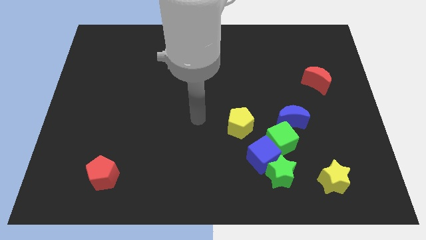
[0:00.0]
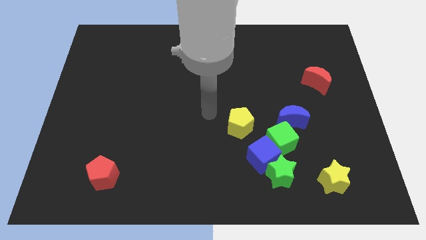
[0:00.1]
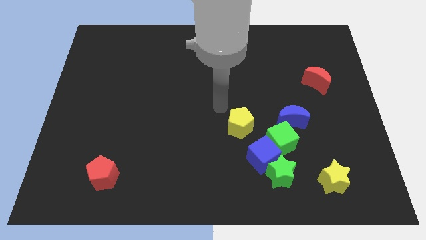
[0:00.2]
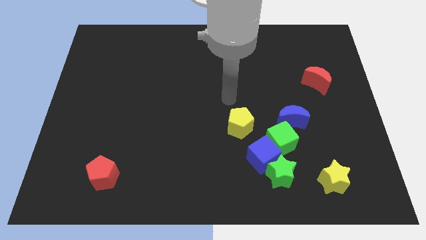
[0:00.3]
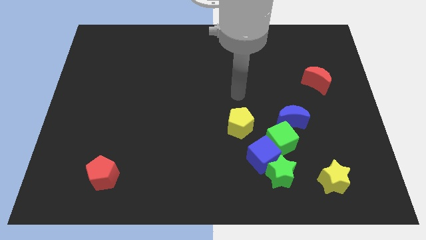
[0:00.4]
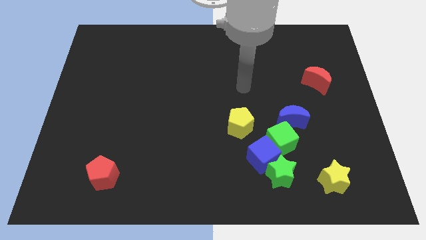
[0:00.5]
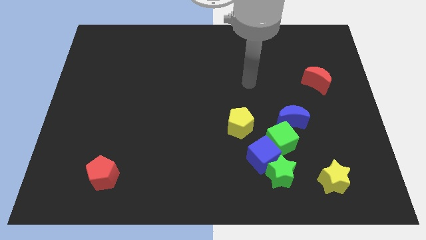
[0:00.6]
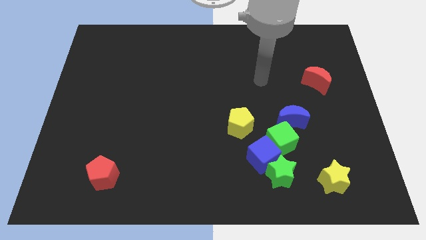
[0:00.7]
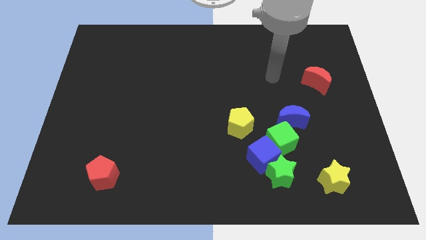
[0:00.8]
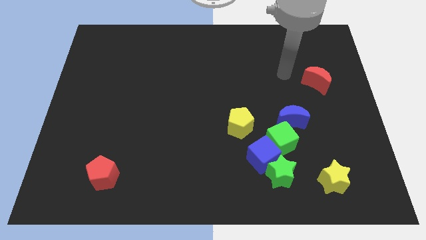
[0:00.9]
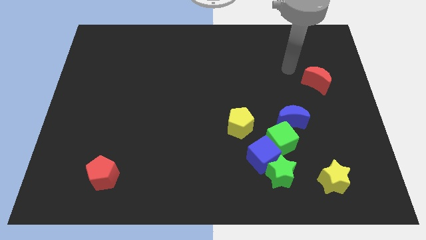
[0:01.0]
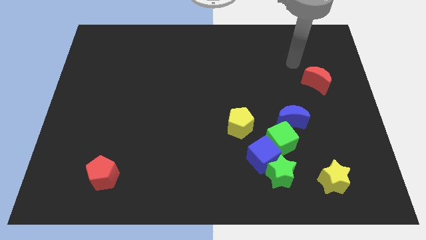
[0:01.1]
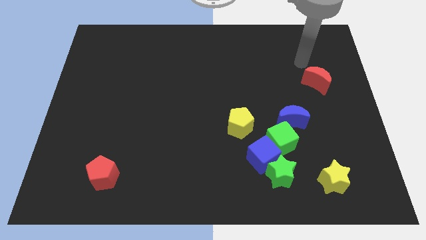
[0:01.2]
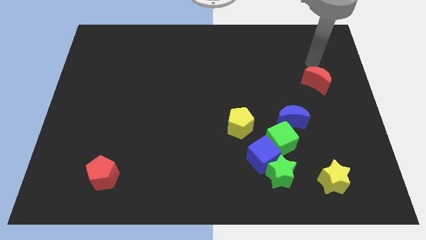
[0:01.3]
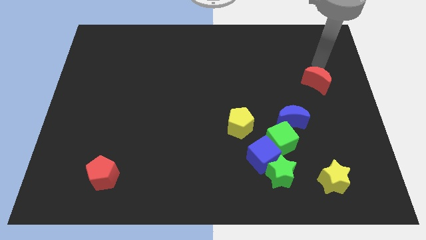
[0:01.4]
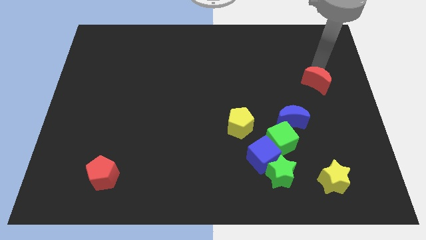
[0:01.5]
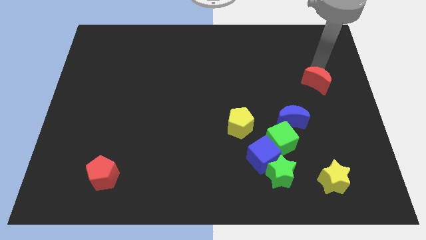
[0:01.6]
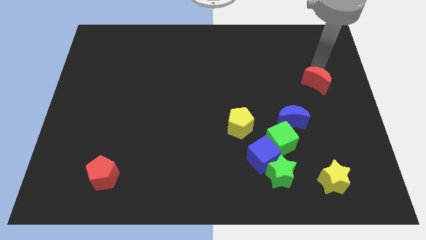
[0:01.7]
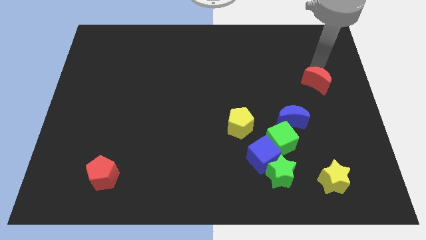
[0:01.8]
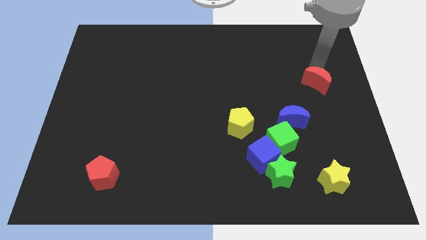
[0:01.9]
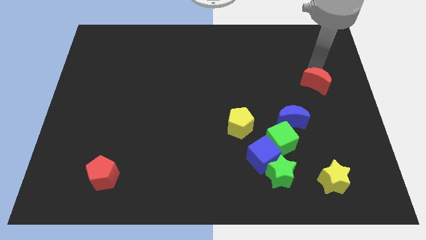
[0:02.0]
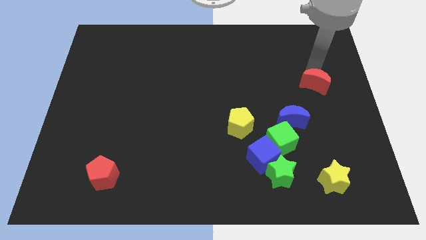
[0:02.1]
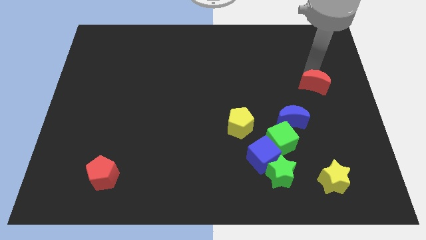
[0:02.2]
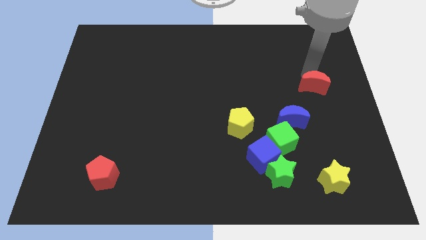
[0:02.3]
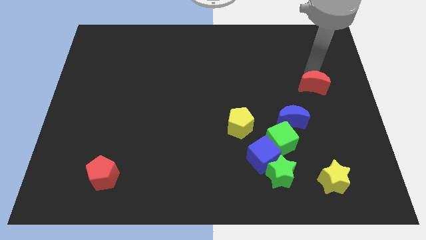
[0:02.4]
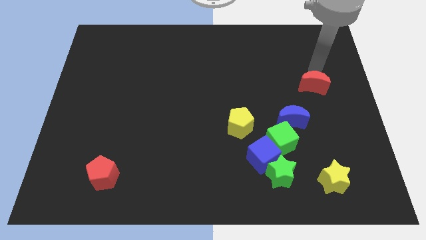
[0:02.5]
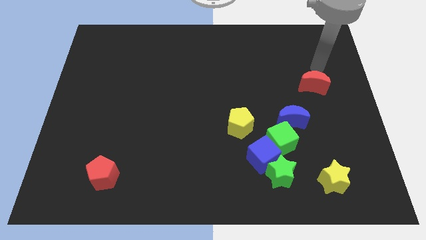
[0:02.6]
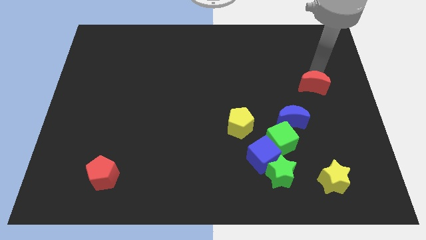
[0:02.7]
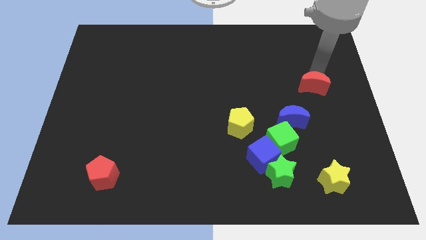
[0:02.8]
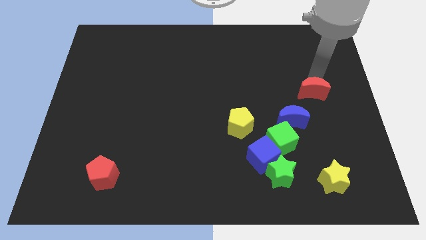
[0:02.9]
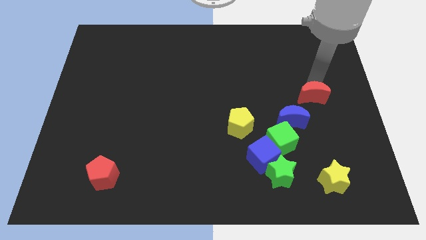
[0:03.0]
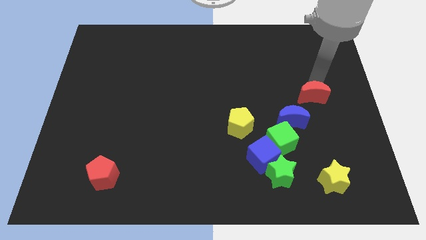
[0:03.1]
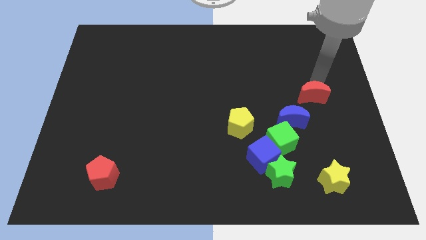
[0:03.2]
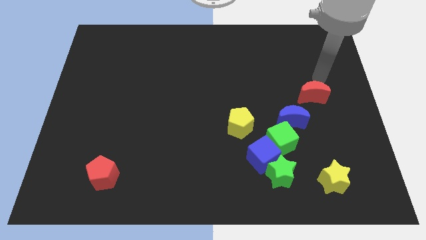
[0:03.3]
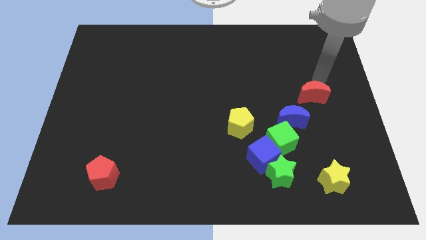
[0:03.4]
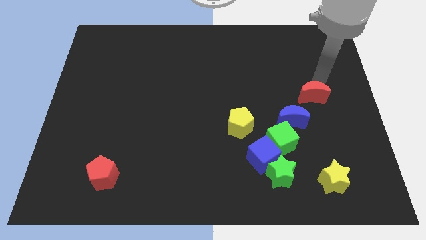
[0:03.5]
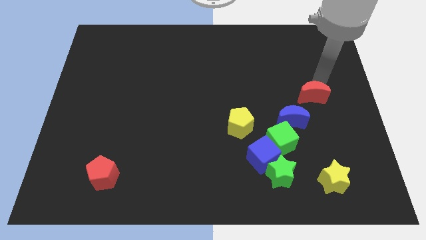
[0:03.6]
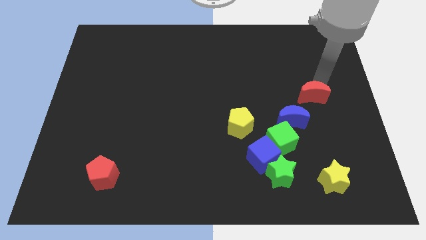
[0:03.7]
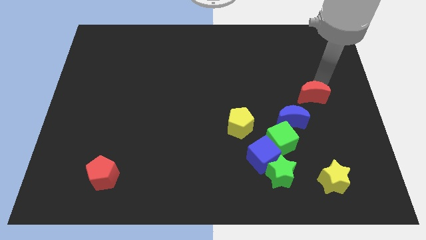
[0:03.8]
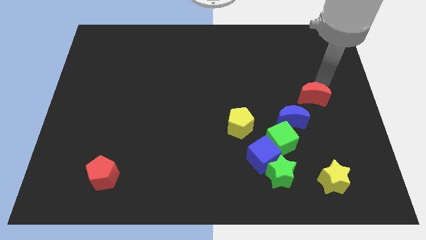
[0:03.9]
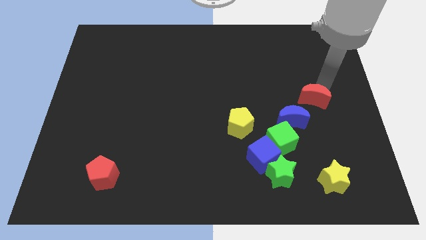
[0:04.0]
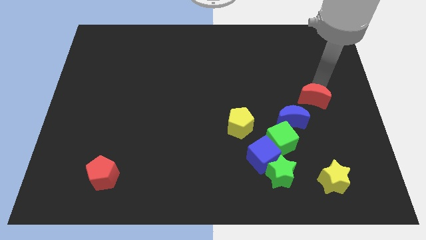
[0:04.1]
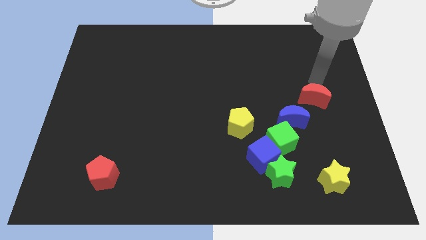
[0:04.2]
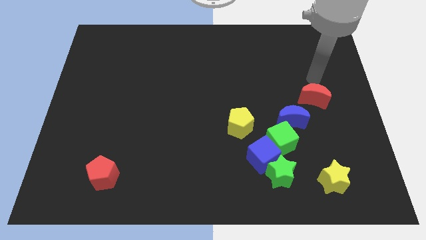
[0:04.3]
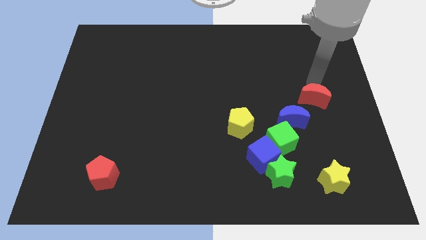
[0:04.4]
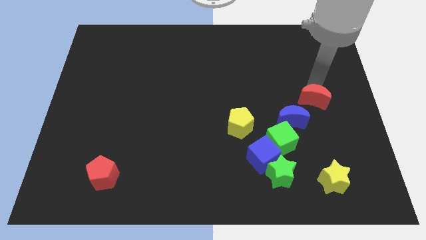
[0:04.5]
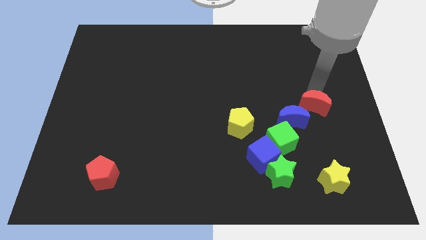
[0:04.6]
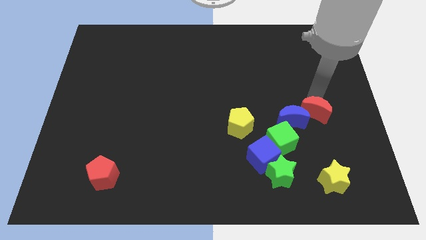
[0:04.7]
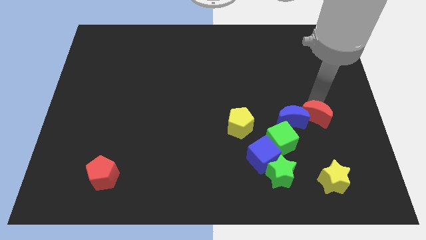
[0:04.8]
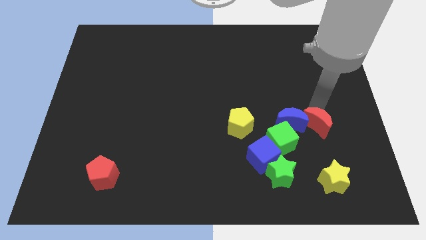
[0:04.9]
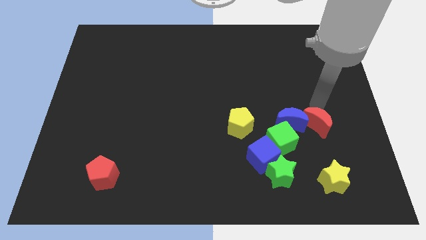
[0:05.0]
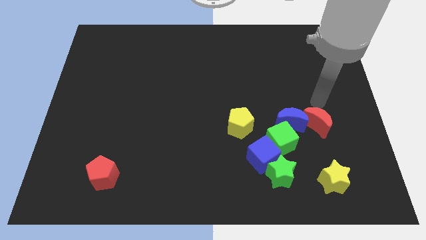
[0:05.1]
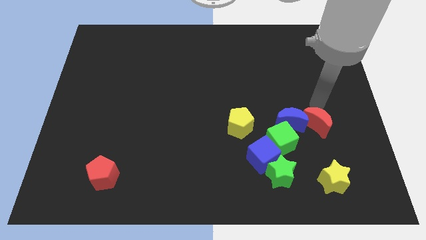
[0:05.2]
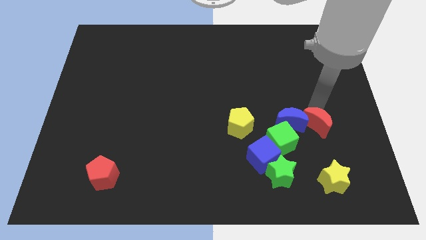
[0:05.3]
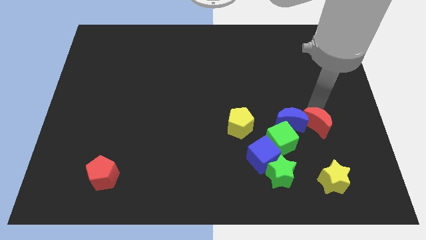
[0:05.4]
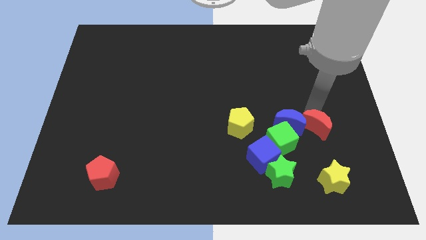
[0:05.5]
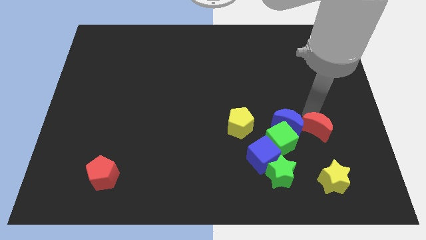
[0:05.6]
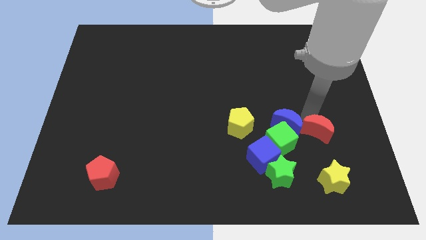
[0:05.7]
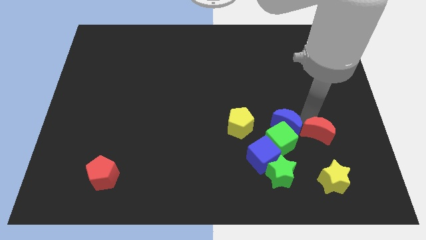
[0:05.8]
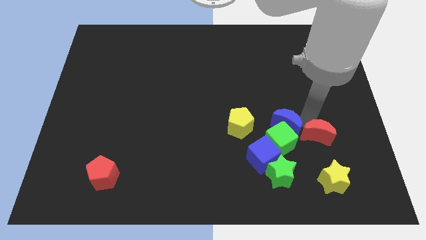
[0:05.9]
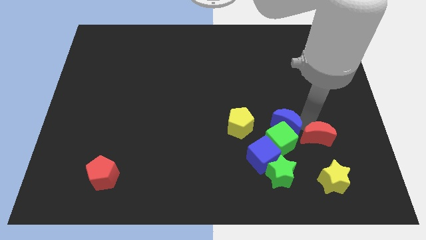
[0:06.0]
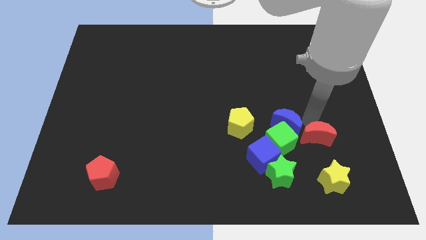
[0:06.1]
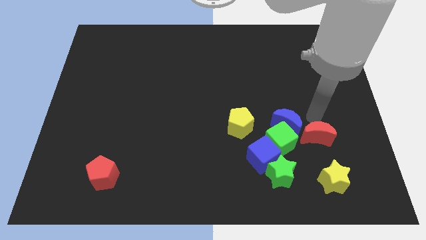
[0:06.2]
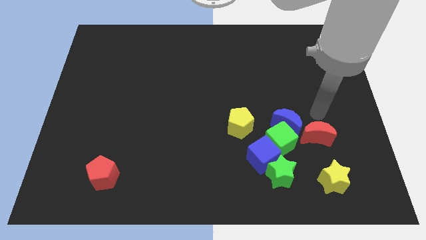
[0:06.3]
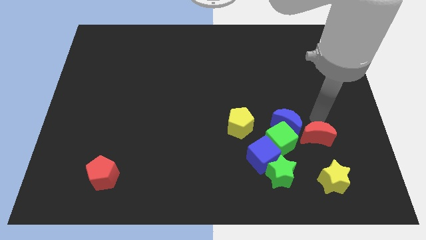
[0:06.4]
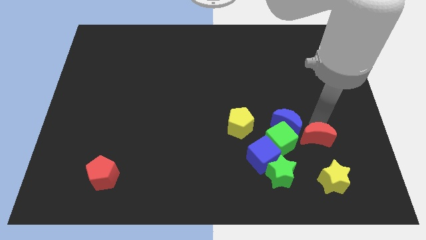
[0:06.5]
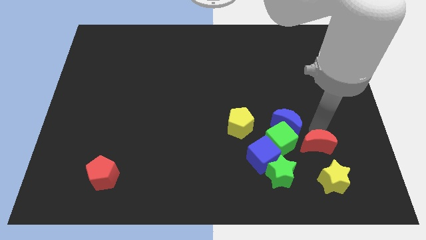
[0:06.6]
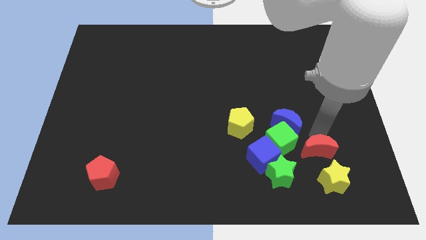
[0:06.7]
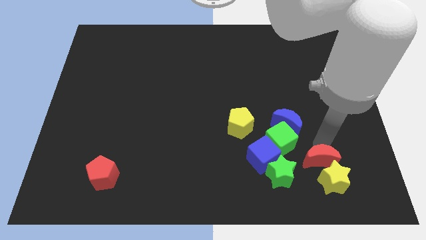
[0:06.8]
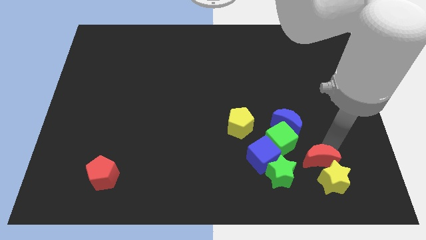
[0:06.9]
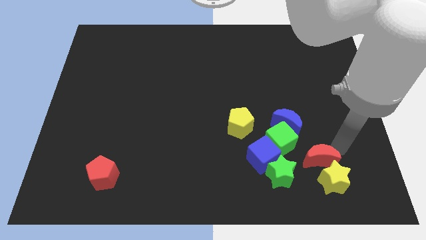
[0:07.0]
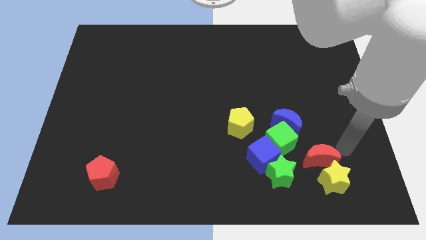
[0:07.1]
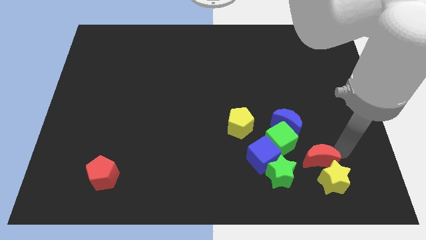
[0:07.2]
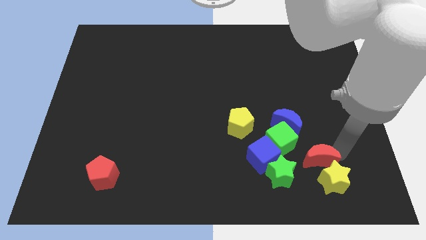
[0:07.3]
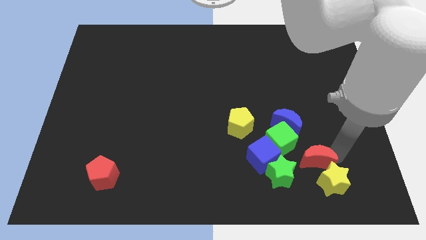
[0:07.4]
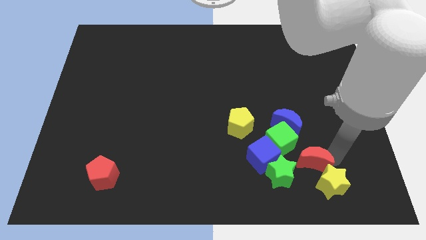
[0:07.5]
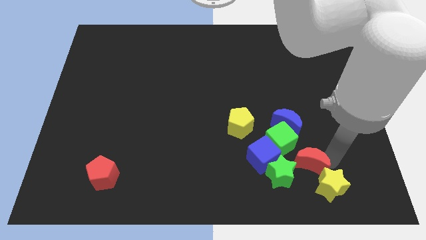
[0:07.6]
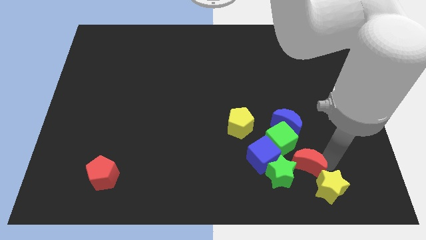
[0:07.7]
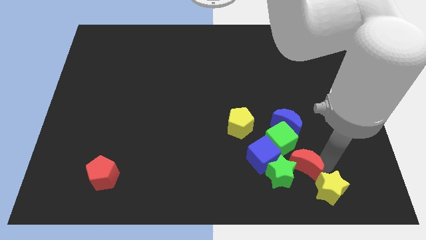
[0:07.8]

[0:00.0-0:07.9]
push the red moon next to the green star

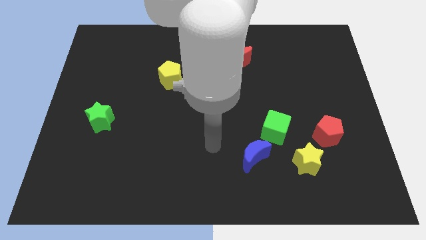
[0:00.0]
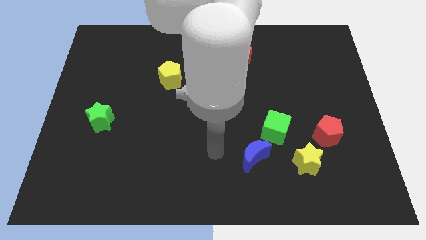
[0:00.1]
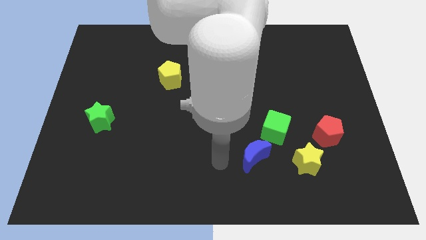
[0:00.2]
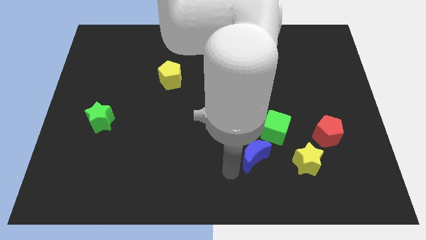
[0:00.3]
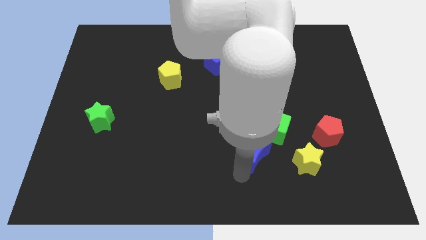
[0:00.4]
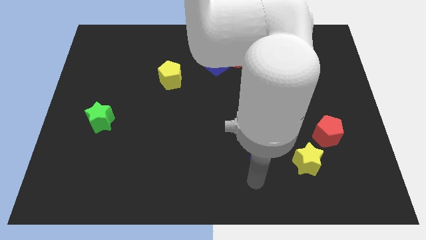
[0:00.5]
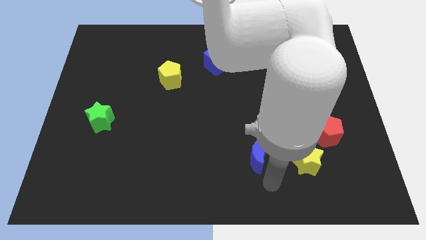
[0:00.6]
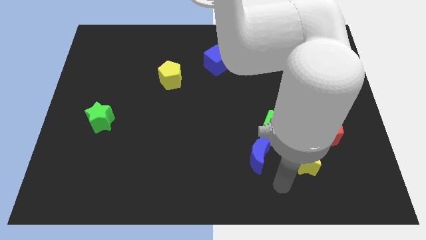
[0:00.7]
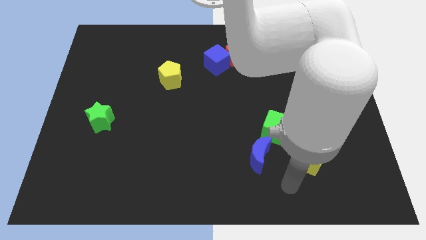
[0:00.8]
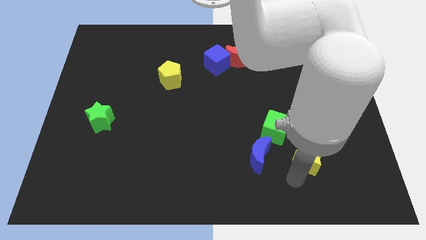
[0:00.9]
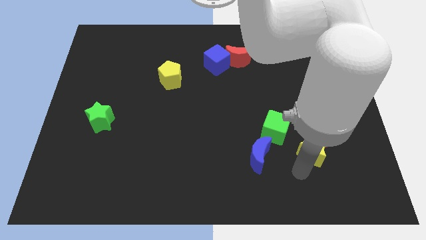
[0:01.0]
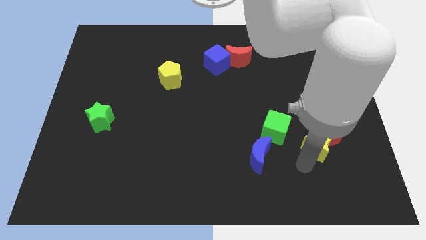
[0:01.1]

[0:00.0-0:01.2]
push the yellow star close to the red pentagon
